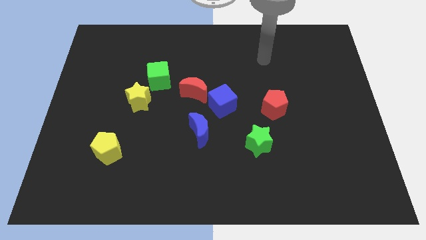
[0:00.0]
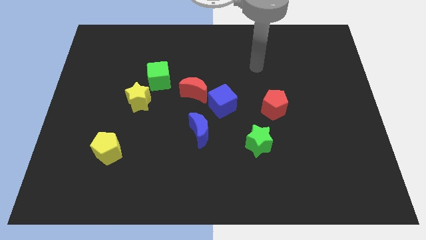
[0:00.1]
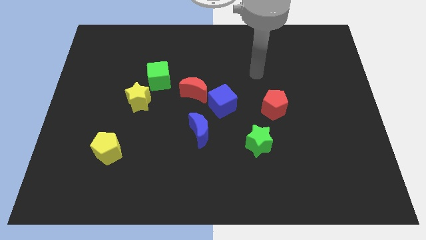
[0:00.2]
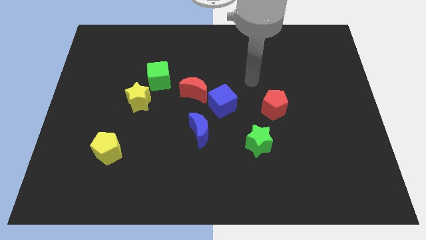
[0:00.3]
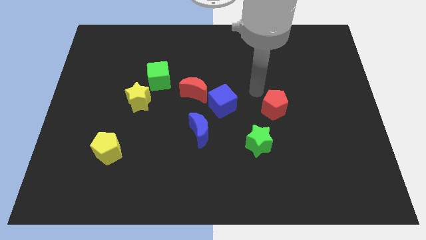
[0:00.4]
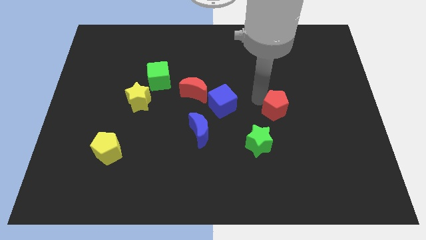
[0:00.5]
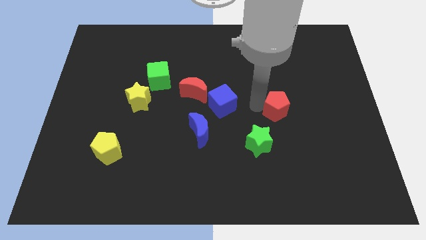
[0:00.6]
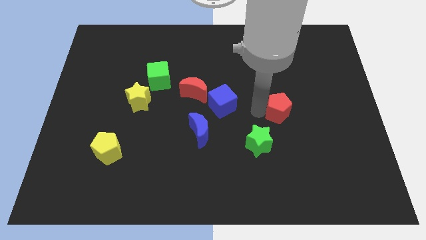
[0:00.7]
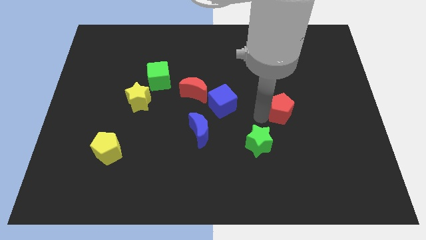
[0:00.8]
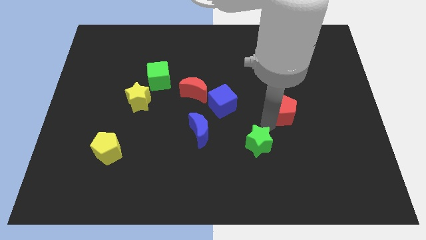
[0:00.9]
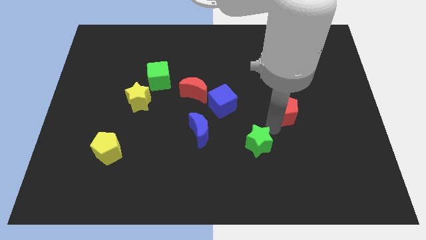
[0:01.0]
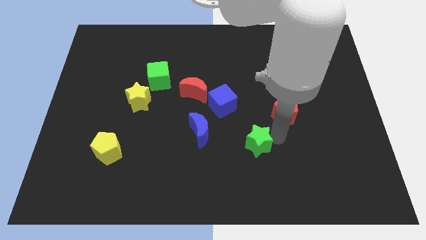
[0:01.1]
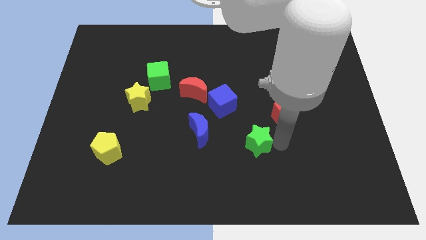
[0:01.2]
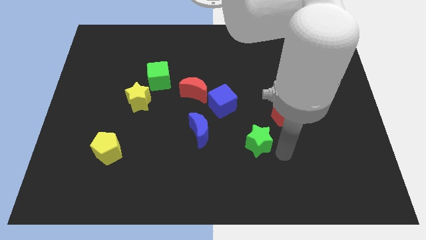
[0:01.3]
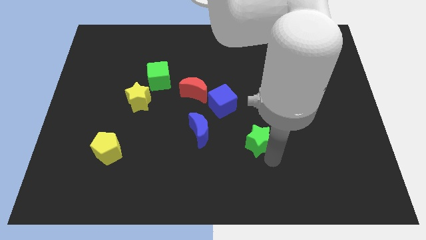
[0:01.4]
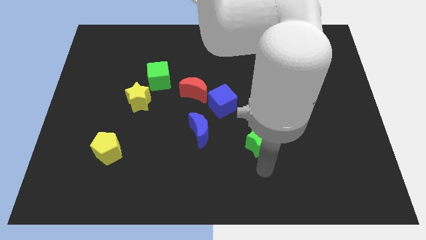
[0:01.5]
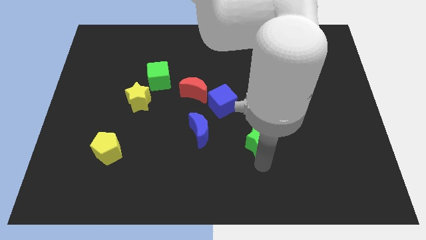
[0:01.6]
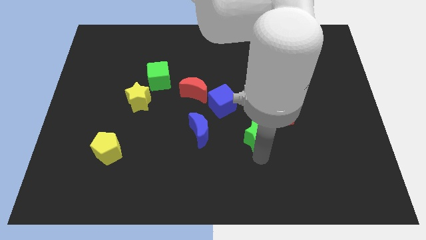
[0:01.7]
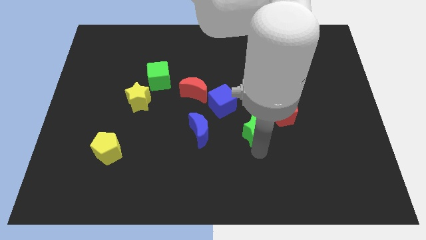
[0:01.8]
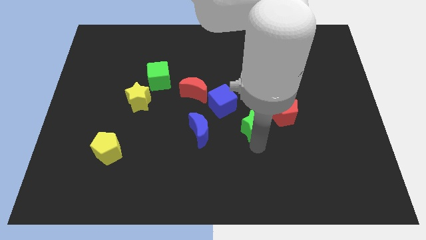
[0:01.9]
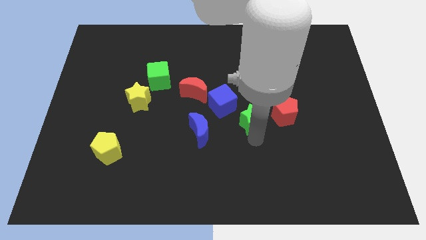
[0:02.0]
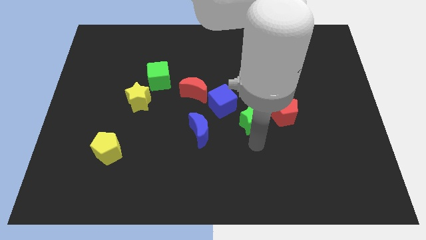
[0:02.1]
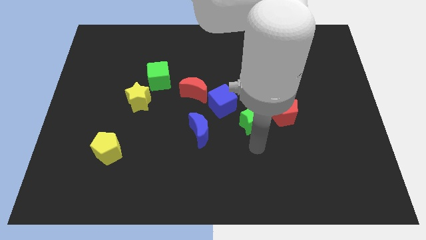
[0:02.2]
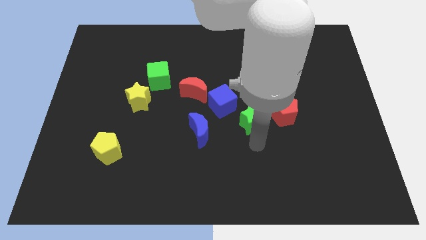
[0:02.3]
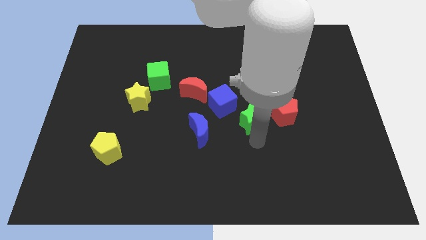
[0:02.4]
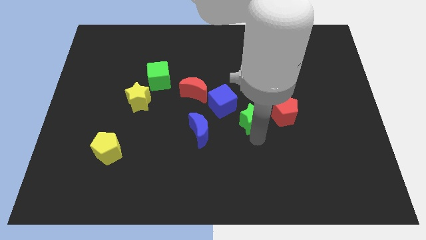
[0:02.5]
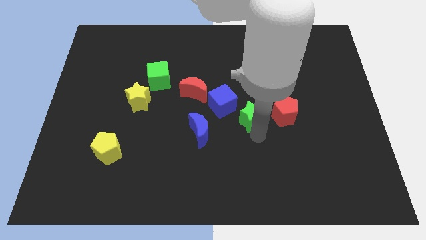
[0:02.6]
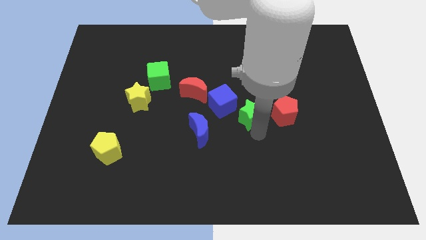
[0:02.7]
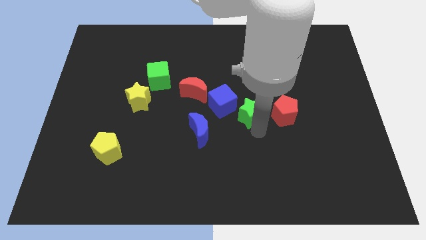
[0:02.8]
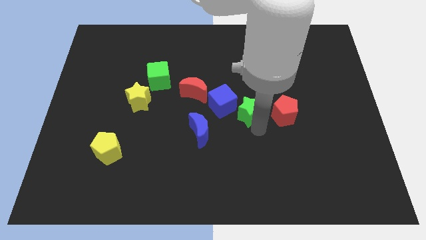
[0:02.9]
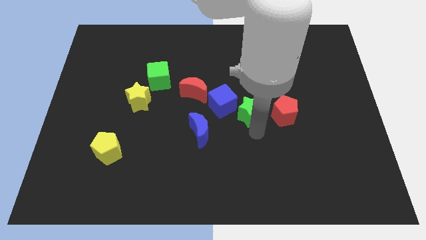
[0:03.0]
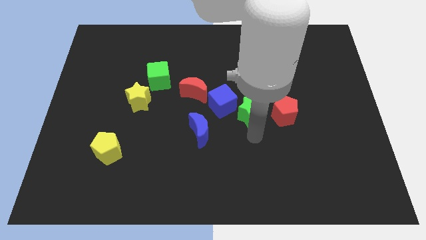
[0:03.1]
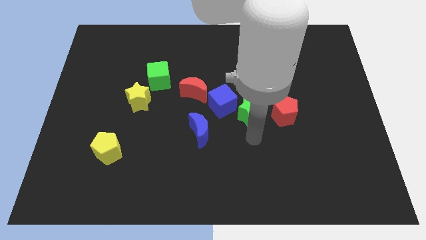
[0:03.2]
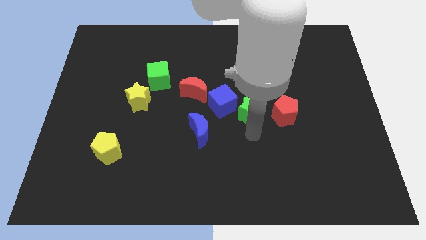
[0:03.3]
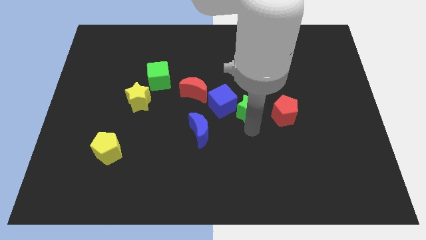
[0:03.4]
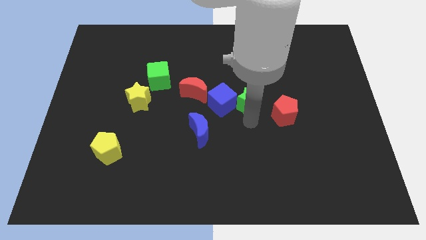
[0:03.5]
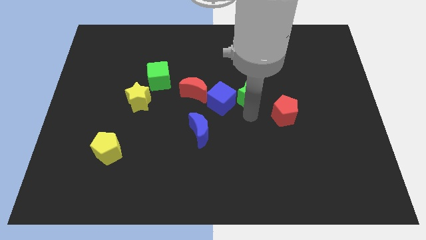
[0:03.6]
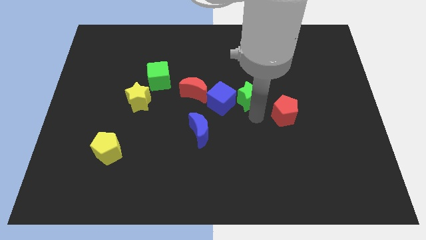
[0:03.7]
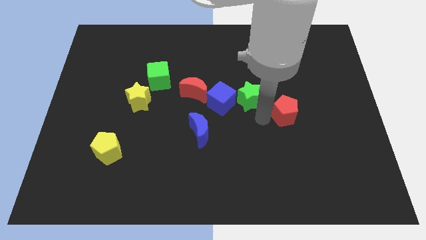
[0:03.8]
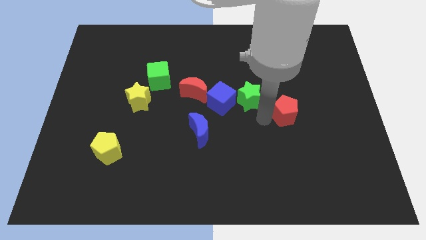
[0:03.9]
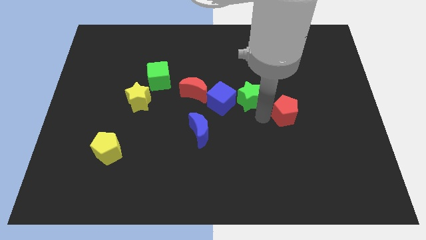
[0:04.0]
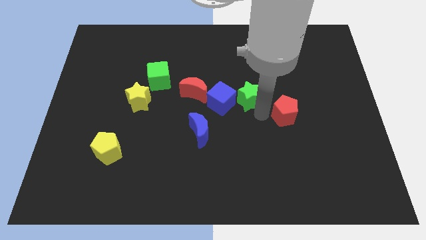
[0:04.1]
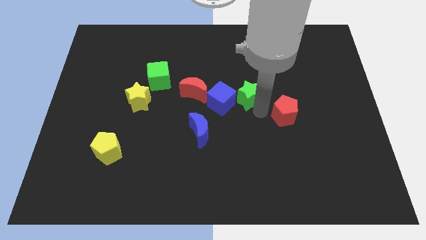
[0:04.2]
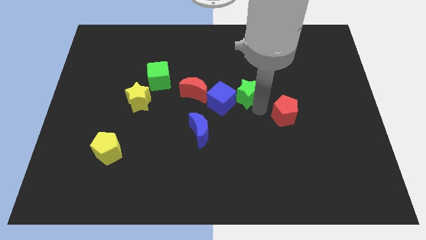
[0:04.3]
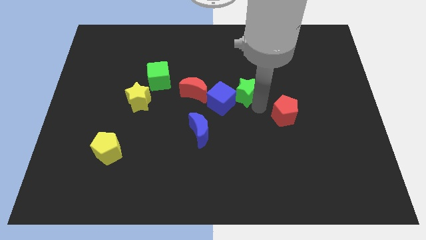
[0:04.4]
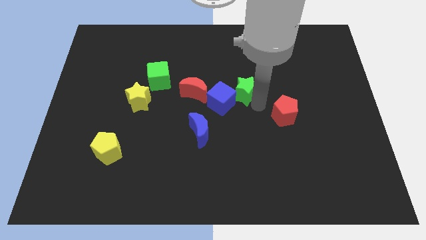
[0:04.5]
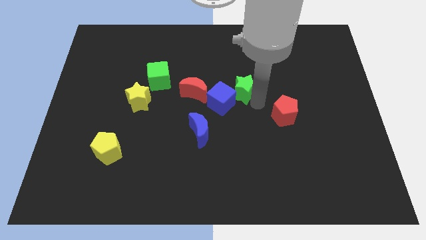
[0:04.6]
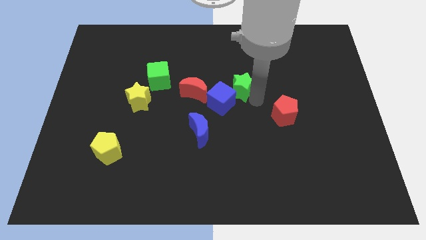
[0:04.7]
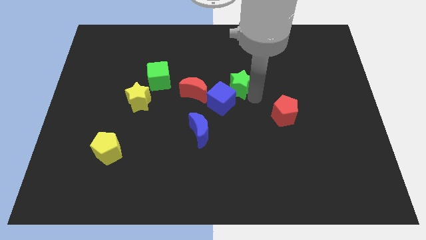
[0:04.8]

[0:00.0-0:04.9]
put the green star above the blue cube

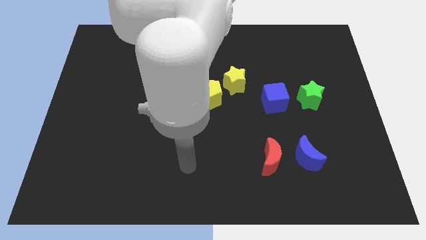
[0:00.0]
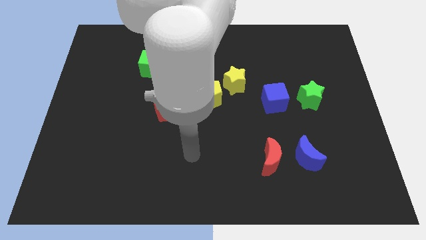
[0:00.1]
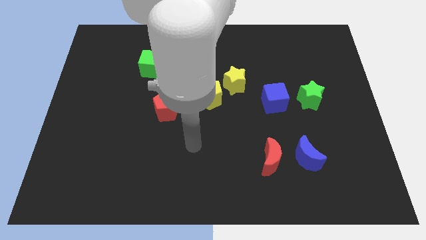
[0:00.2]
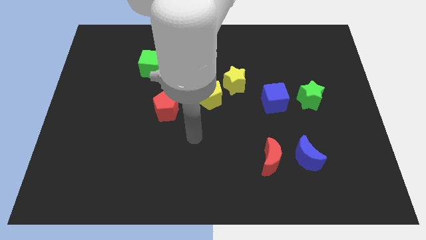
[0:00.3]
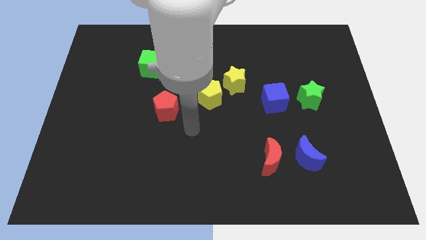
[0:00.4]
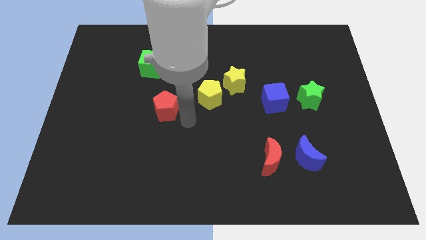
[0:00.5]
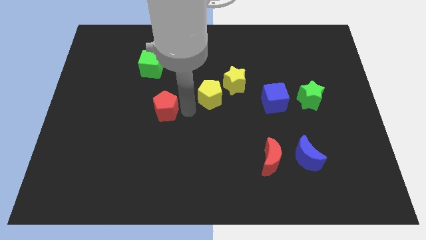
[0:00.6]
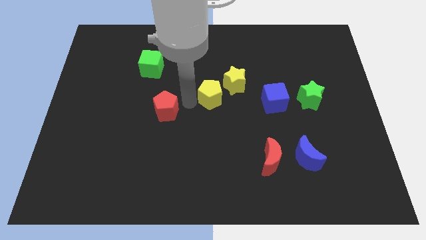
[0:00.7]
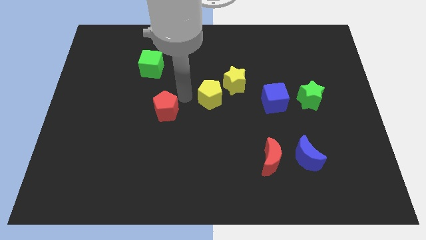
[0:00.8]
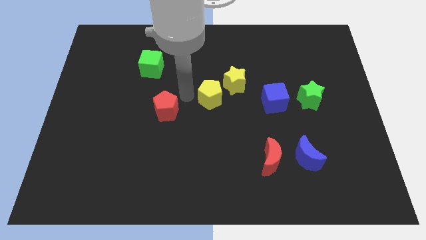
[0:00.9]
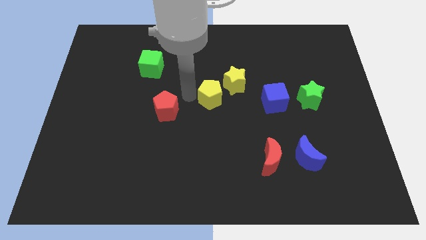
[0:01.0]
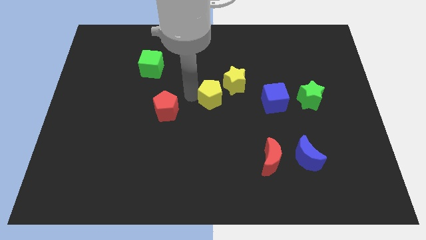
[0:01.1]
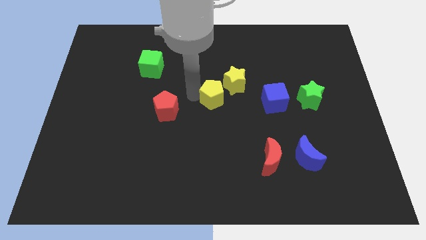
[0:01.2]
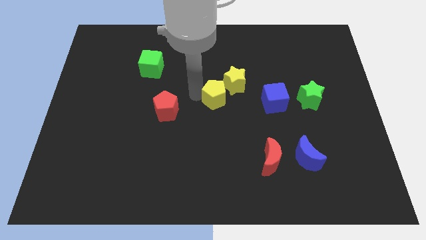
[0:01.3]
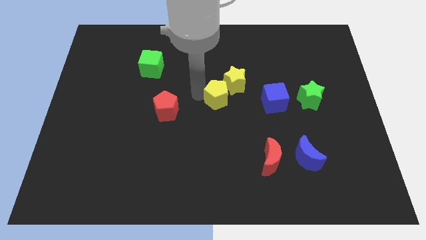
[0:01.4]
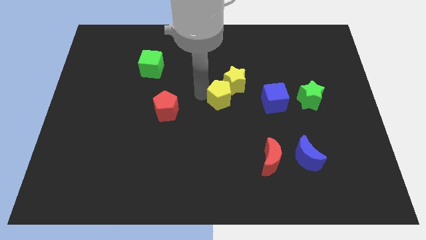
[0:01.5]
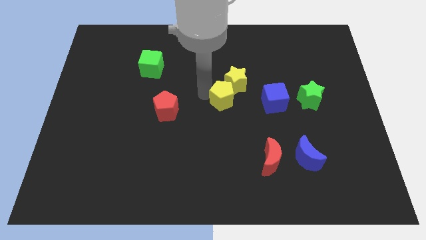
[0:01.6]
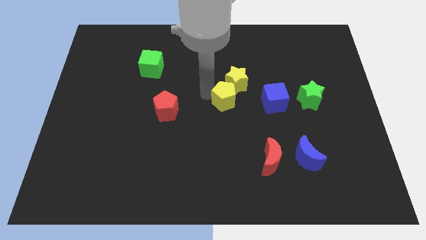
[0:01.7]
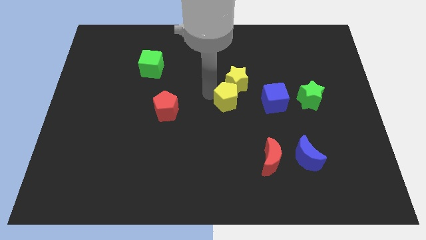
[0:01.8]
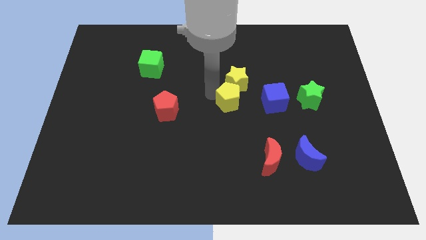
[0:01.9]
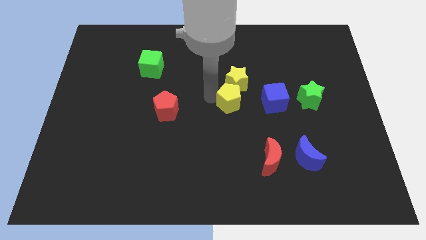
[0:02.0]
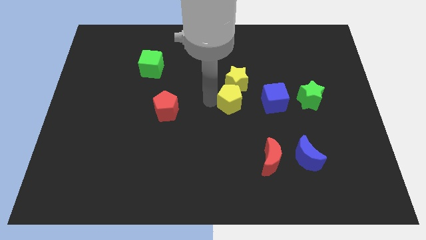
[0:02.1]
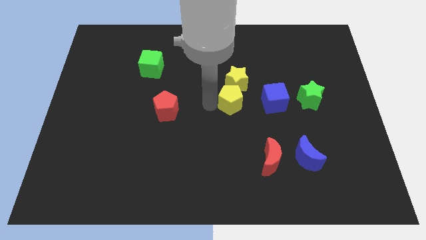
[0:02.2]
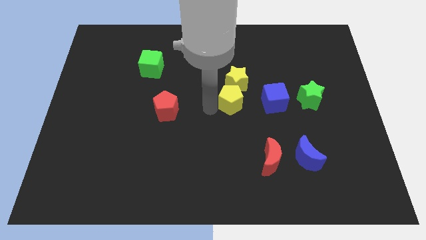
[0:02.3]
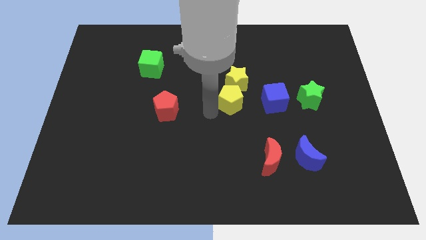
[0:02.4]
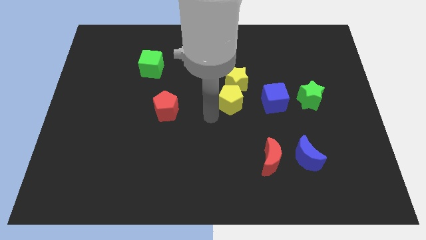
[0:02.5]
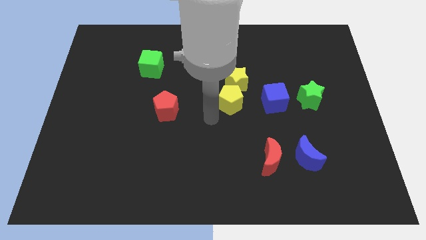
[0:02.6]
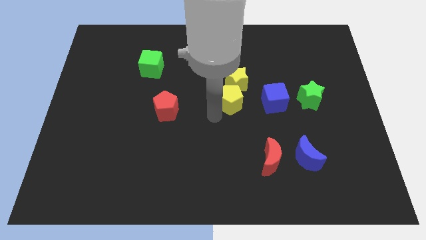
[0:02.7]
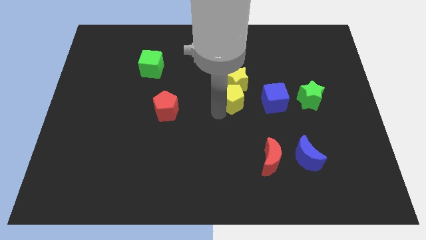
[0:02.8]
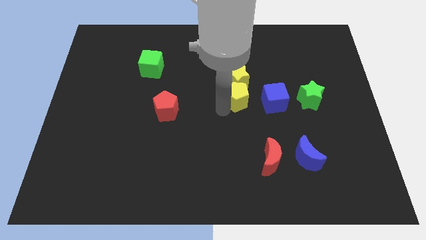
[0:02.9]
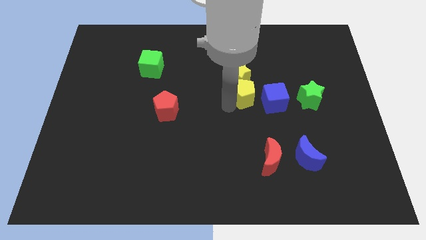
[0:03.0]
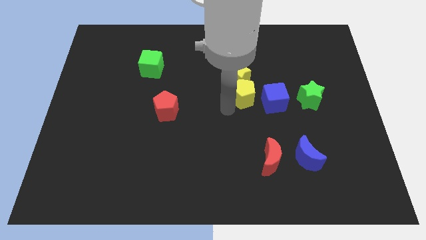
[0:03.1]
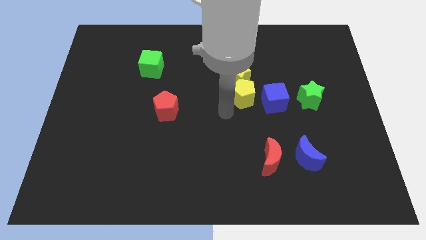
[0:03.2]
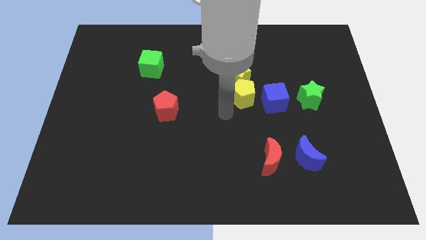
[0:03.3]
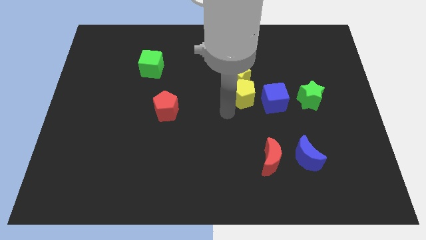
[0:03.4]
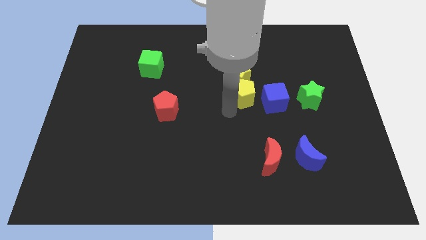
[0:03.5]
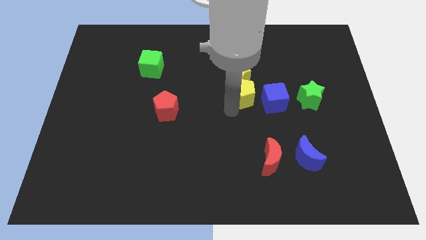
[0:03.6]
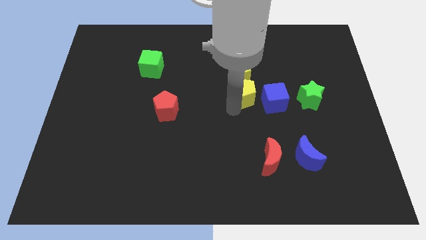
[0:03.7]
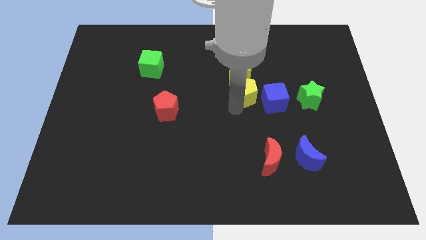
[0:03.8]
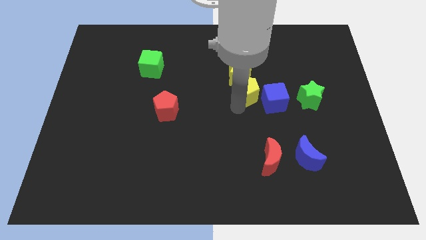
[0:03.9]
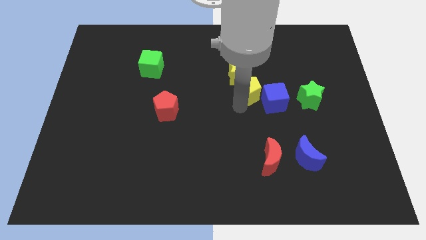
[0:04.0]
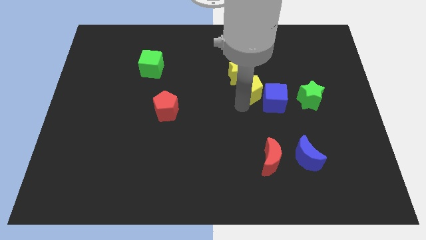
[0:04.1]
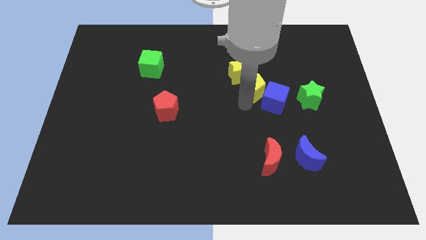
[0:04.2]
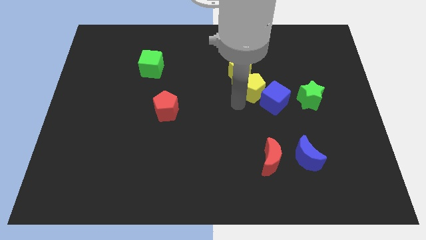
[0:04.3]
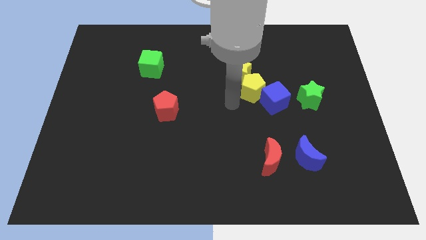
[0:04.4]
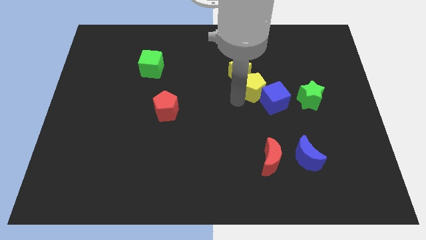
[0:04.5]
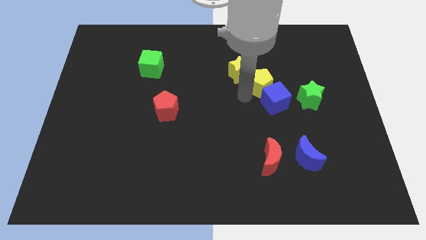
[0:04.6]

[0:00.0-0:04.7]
slide the yellow pentagon just right of the yellow star
